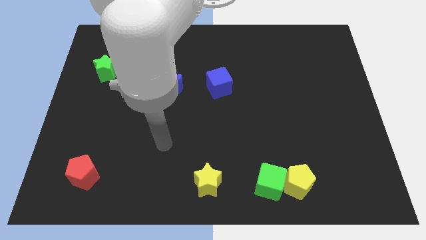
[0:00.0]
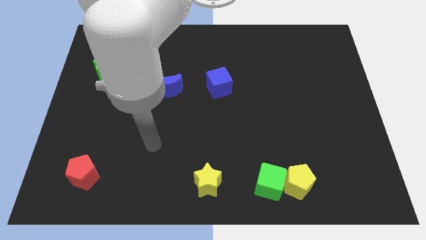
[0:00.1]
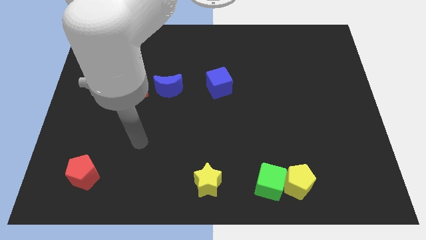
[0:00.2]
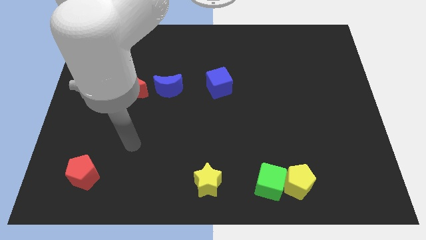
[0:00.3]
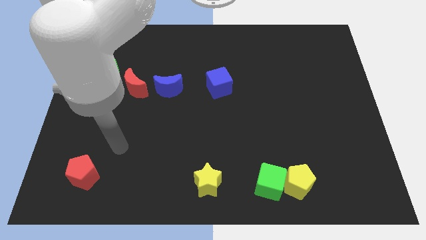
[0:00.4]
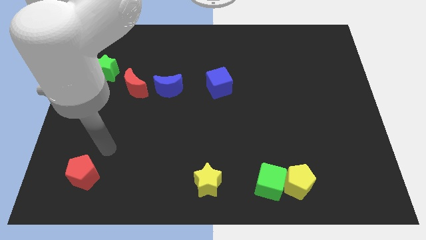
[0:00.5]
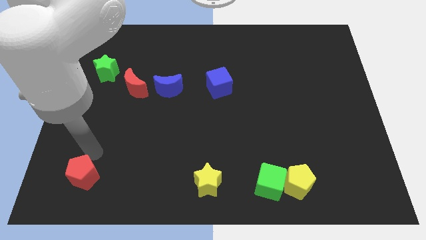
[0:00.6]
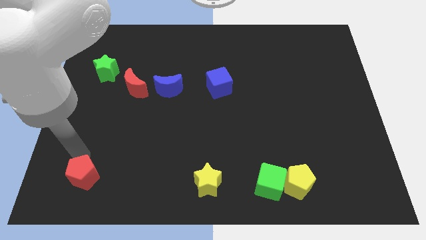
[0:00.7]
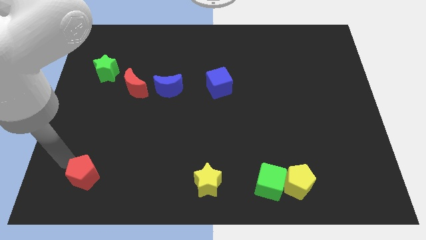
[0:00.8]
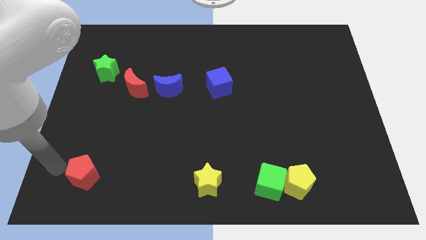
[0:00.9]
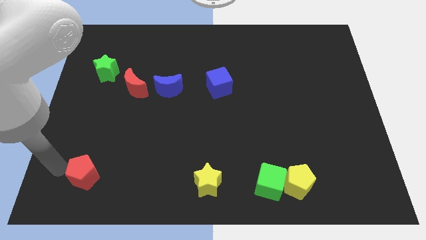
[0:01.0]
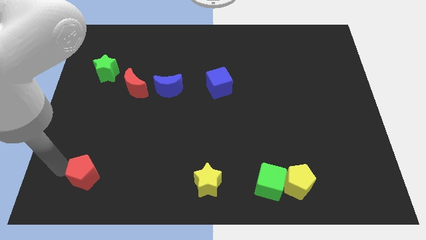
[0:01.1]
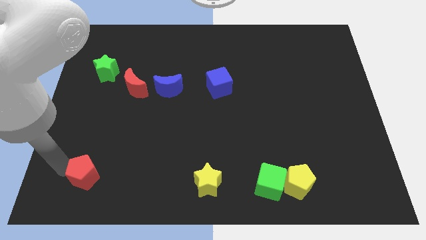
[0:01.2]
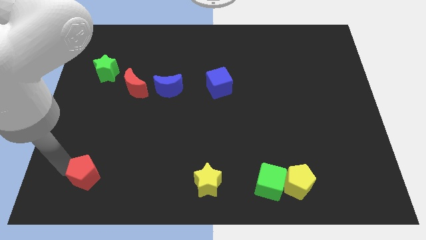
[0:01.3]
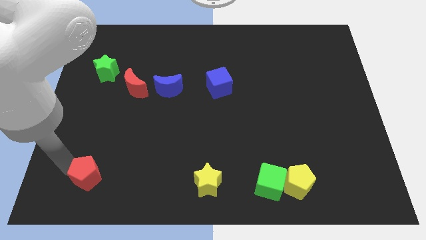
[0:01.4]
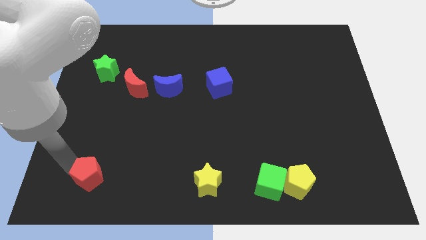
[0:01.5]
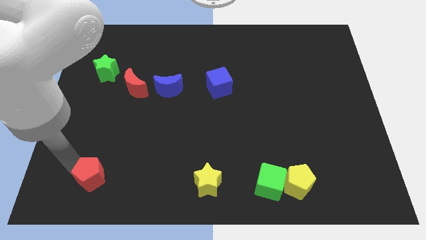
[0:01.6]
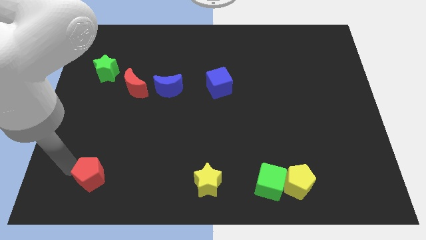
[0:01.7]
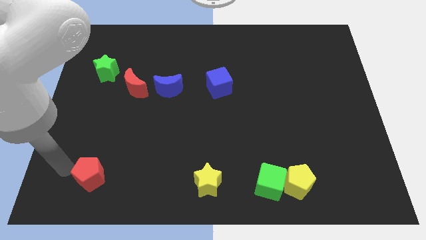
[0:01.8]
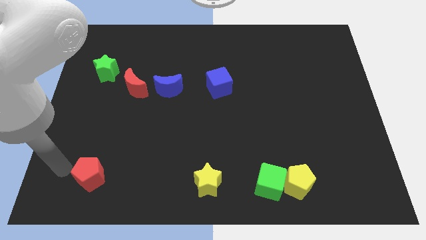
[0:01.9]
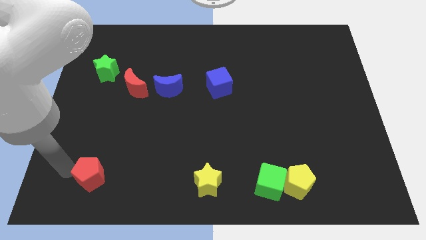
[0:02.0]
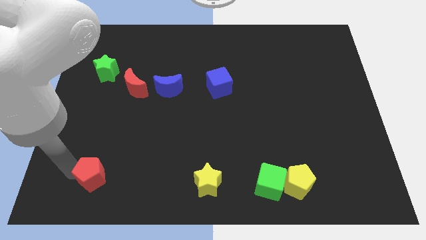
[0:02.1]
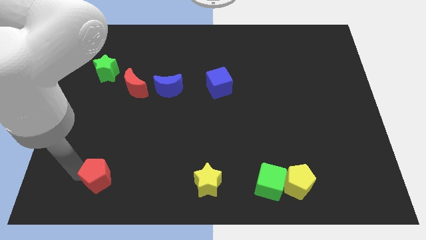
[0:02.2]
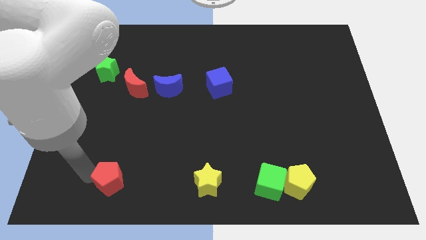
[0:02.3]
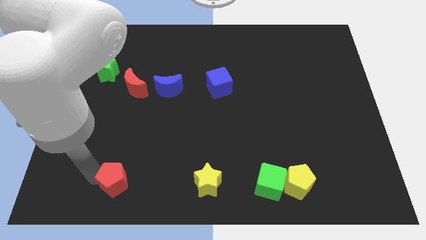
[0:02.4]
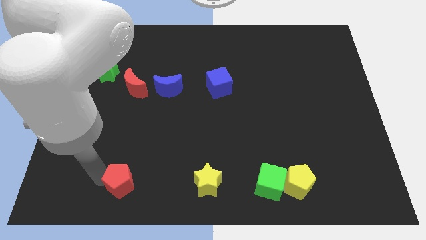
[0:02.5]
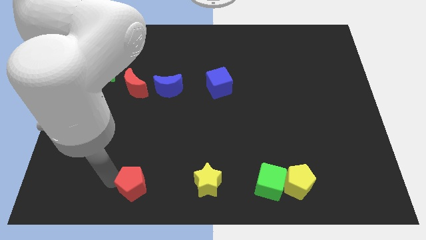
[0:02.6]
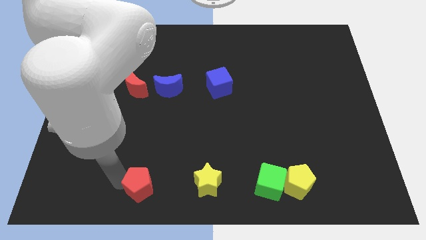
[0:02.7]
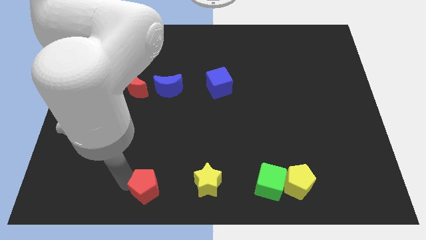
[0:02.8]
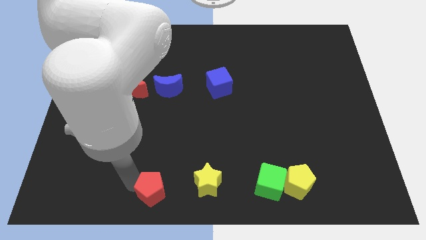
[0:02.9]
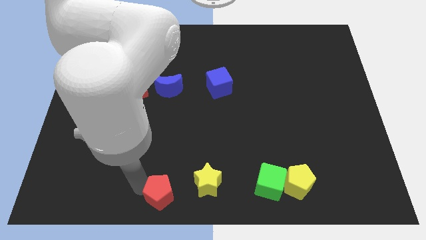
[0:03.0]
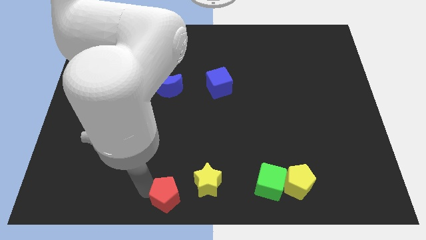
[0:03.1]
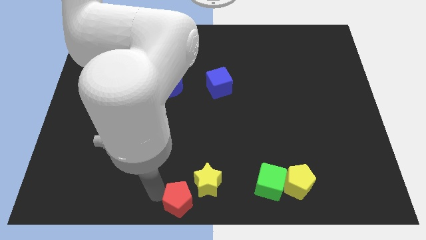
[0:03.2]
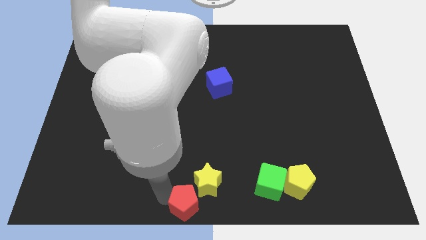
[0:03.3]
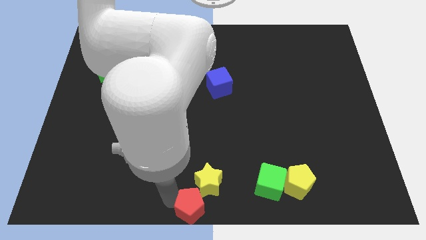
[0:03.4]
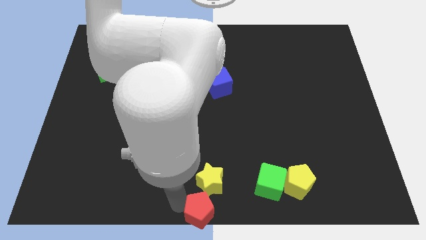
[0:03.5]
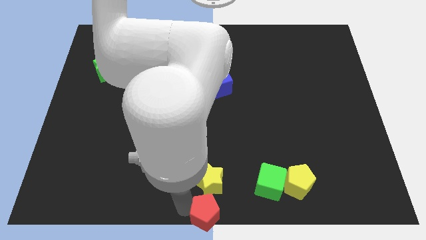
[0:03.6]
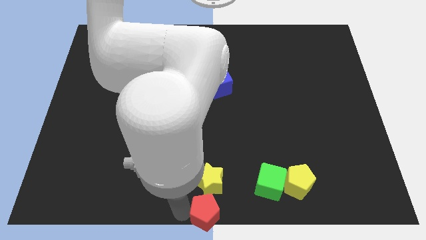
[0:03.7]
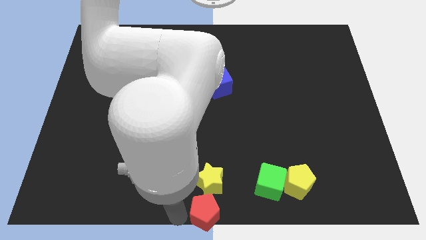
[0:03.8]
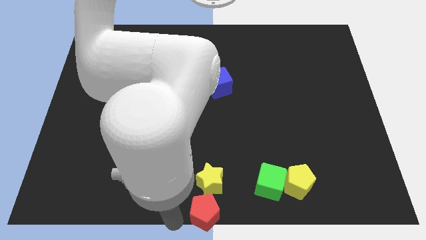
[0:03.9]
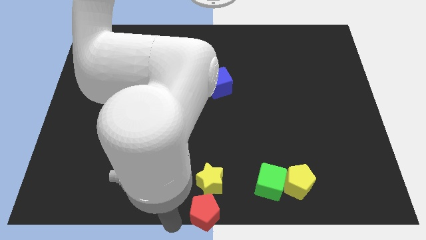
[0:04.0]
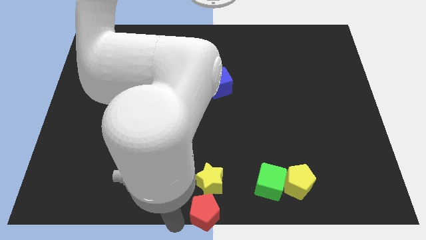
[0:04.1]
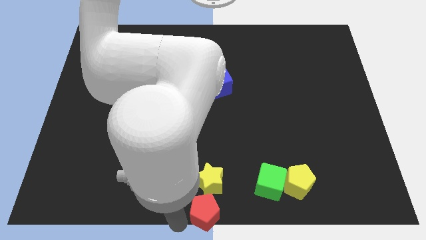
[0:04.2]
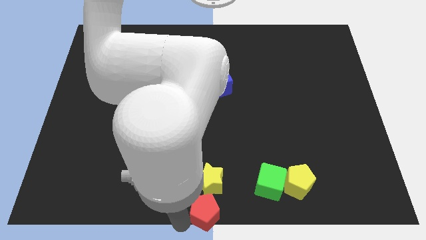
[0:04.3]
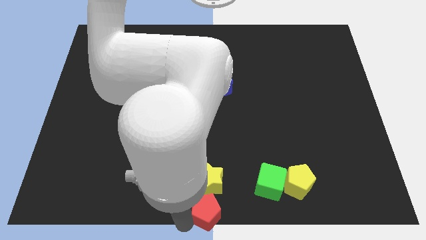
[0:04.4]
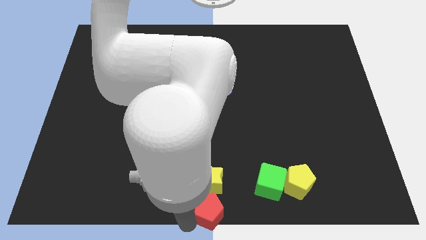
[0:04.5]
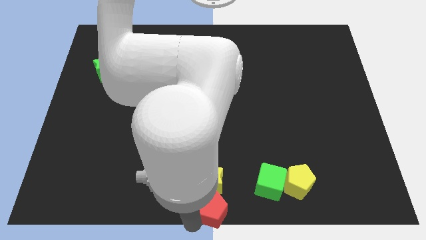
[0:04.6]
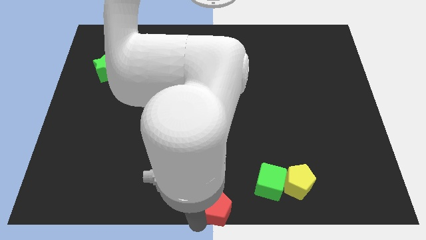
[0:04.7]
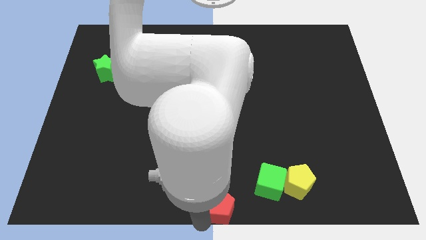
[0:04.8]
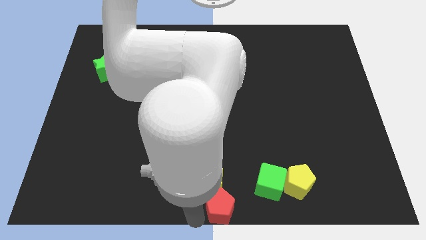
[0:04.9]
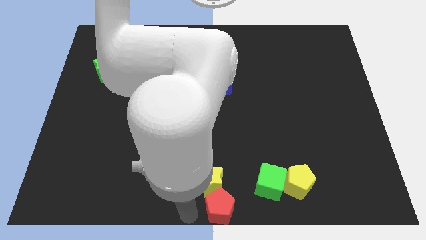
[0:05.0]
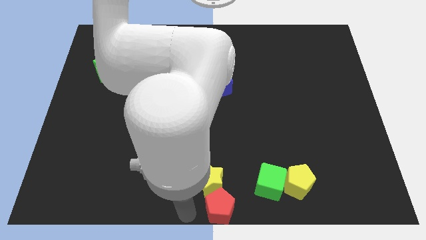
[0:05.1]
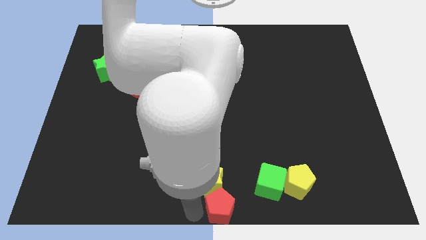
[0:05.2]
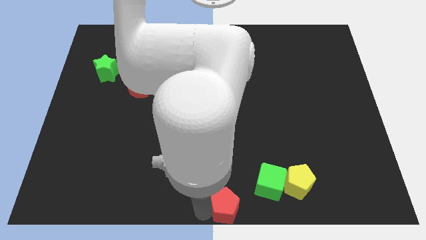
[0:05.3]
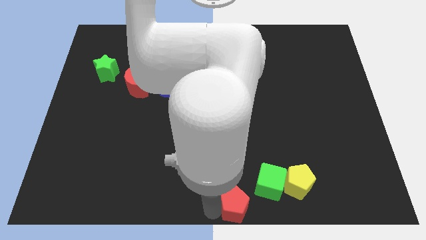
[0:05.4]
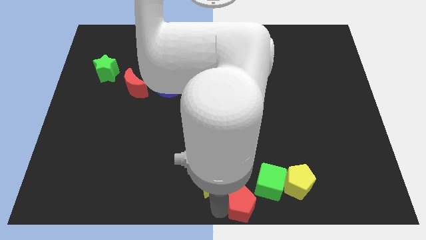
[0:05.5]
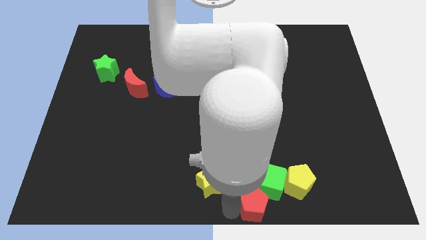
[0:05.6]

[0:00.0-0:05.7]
push the red pentagon close to the green cube

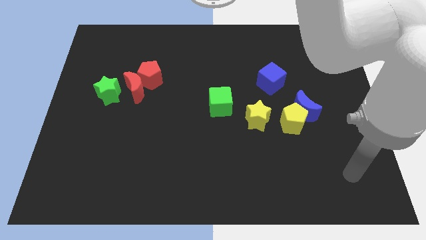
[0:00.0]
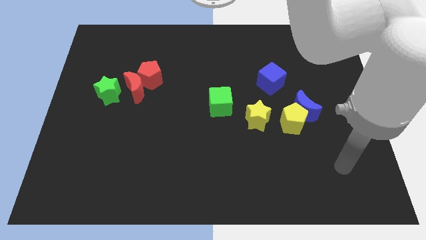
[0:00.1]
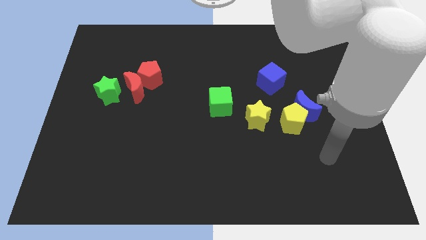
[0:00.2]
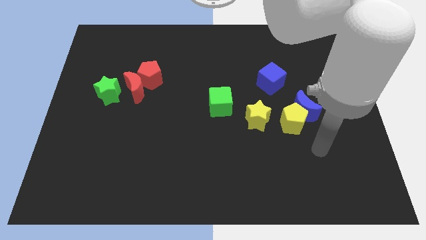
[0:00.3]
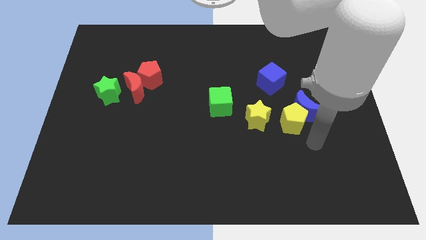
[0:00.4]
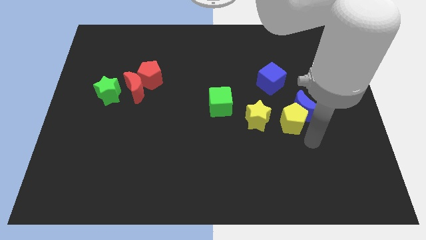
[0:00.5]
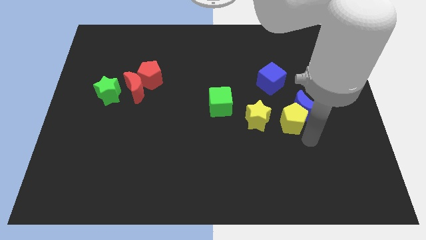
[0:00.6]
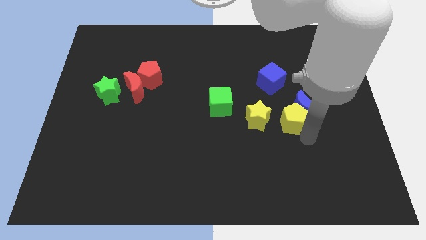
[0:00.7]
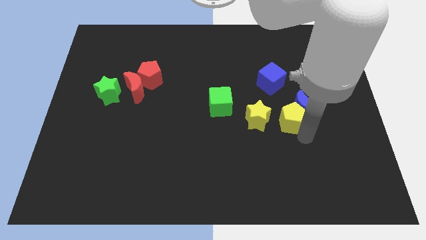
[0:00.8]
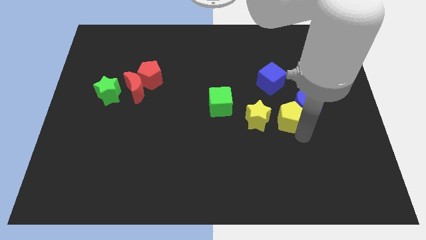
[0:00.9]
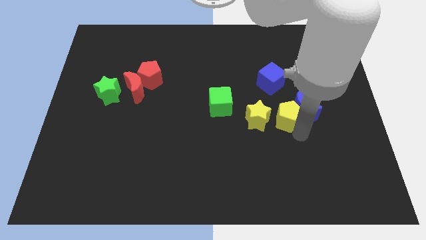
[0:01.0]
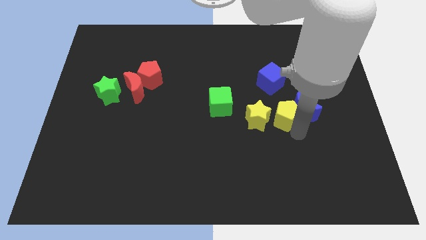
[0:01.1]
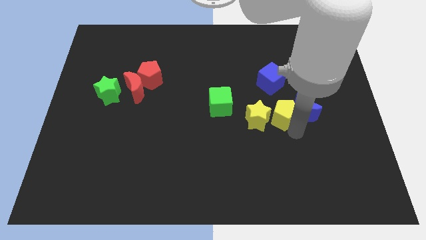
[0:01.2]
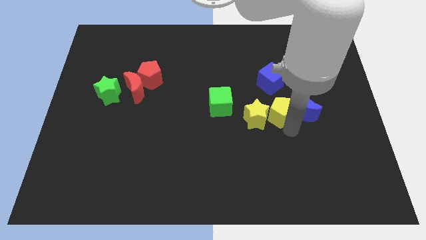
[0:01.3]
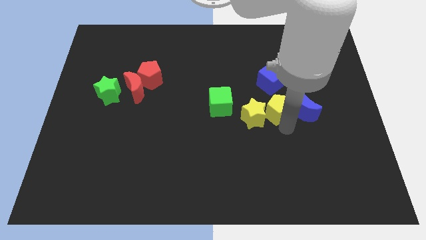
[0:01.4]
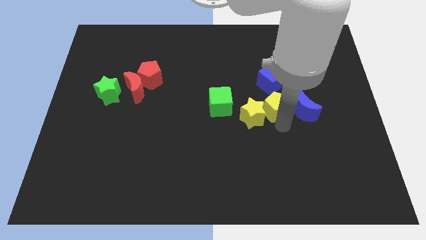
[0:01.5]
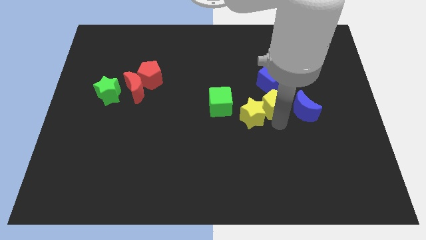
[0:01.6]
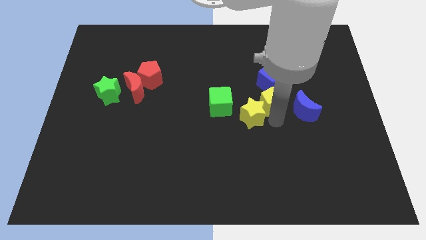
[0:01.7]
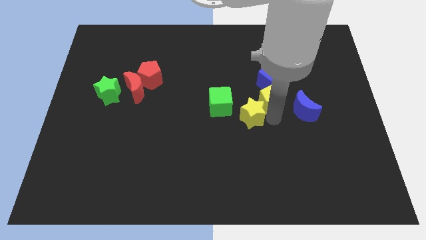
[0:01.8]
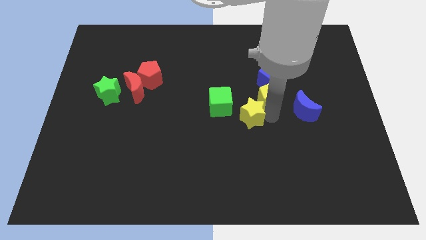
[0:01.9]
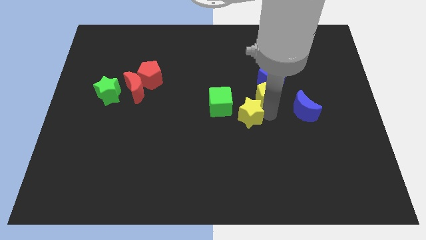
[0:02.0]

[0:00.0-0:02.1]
move the yellow pentagon next to the blue cube
